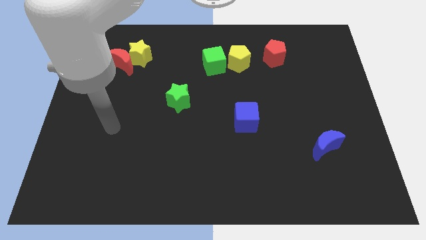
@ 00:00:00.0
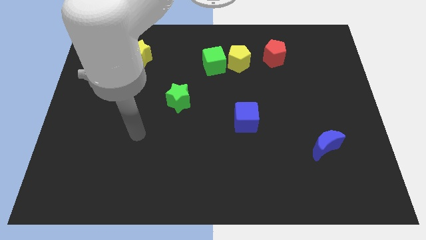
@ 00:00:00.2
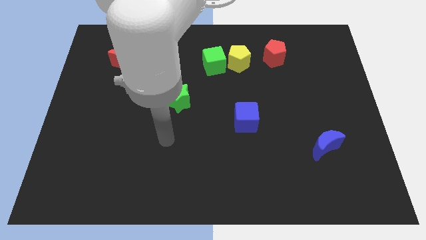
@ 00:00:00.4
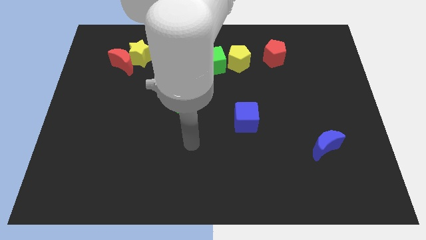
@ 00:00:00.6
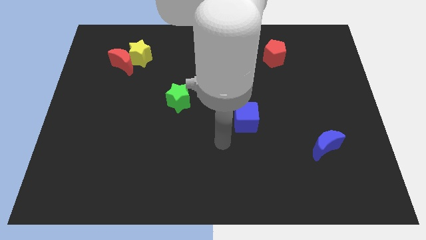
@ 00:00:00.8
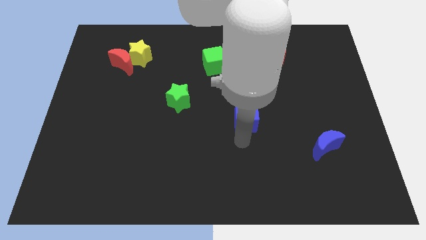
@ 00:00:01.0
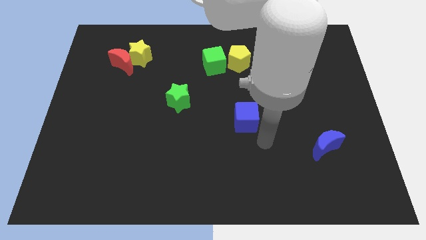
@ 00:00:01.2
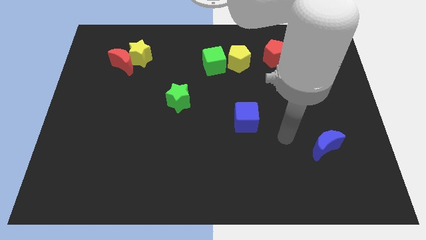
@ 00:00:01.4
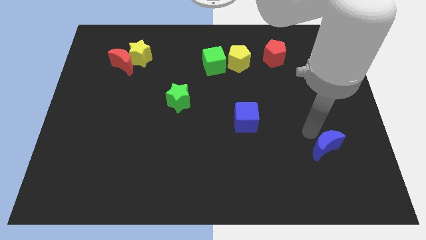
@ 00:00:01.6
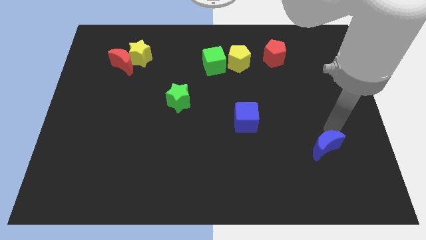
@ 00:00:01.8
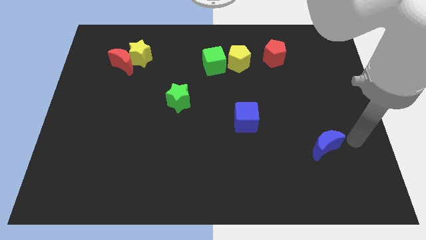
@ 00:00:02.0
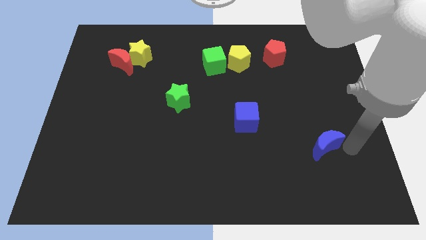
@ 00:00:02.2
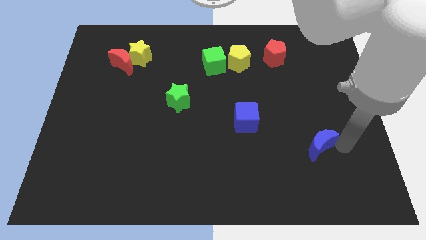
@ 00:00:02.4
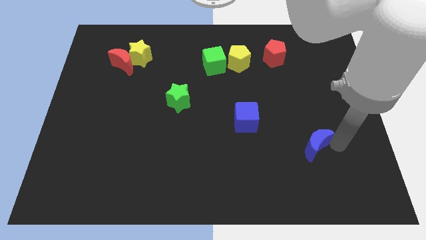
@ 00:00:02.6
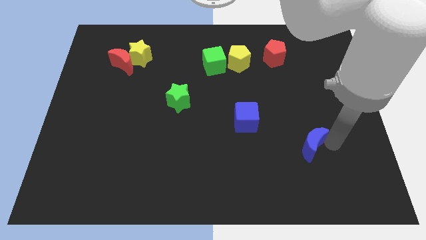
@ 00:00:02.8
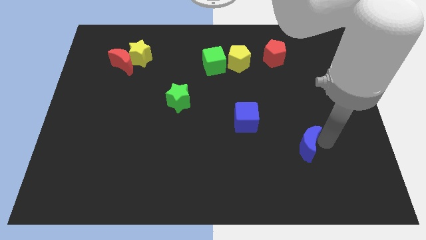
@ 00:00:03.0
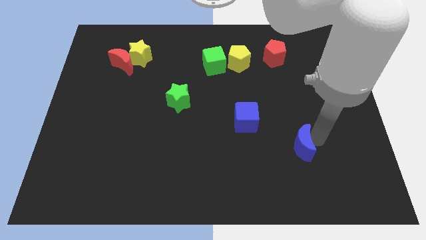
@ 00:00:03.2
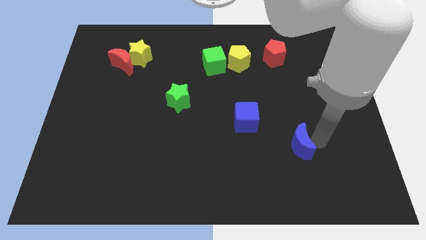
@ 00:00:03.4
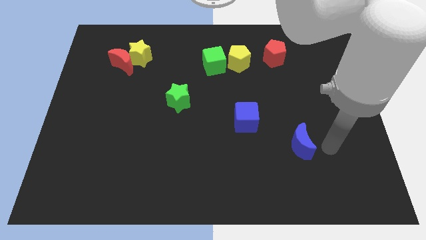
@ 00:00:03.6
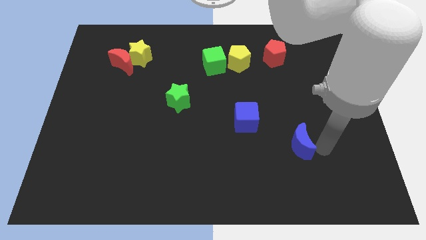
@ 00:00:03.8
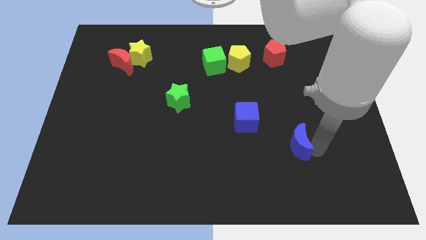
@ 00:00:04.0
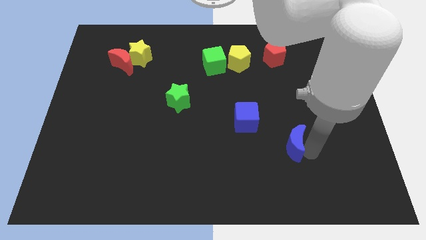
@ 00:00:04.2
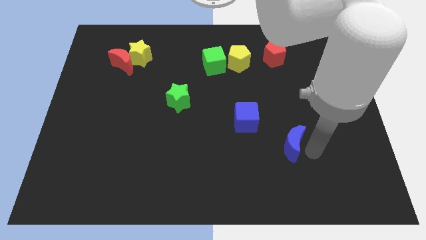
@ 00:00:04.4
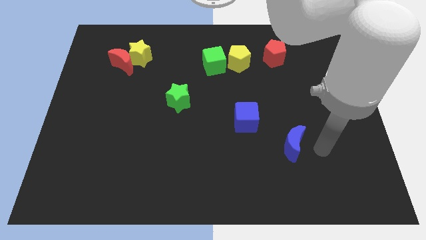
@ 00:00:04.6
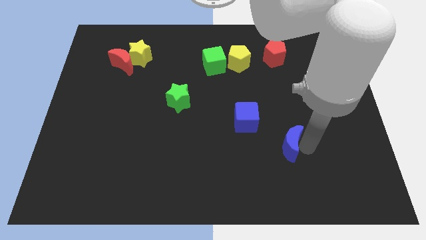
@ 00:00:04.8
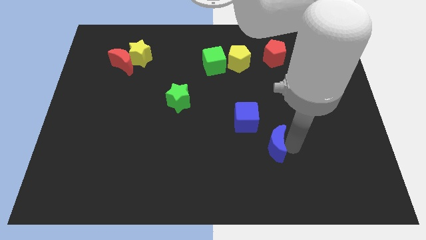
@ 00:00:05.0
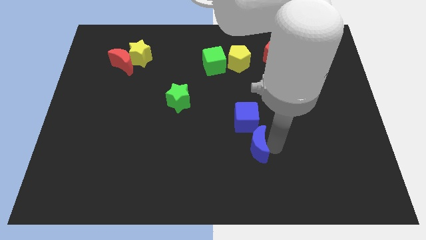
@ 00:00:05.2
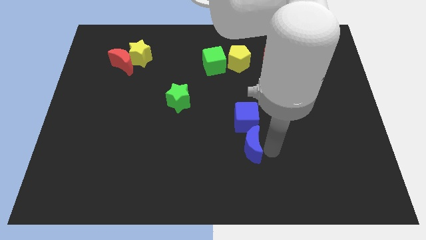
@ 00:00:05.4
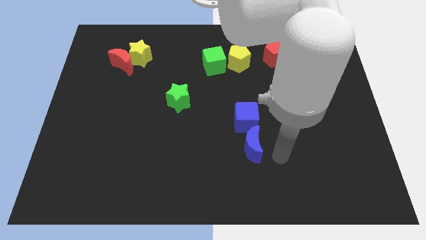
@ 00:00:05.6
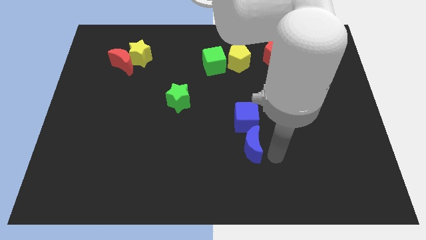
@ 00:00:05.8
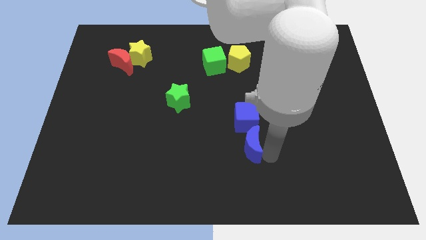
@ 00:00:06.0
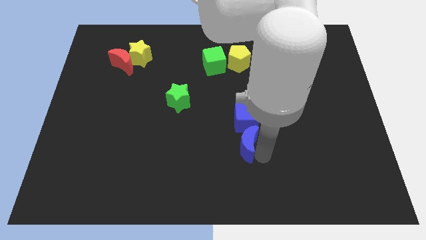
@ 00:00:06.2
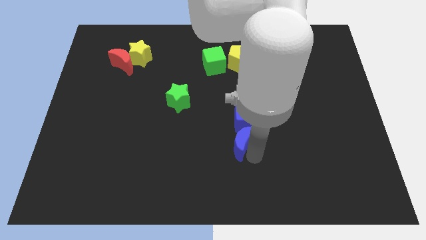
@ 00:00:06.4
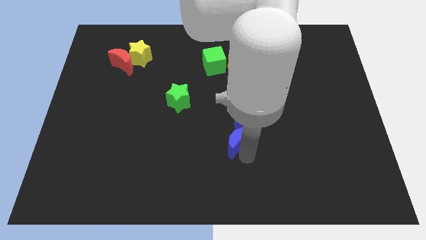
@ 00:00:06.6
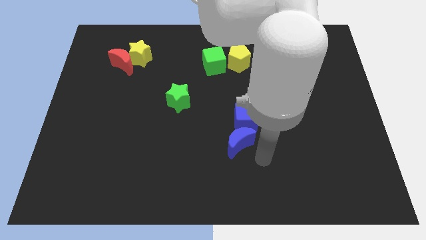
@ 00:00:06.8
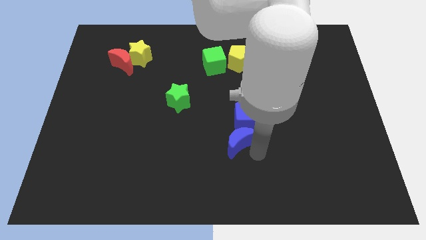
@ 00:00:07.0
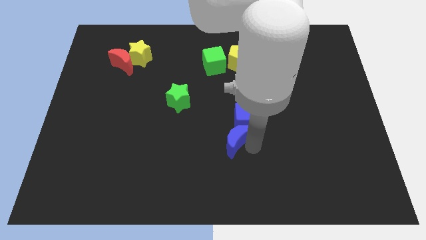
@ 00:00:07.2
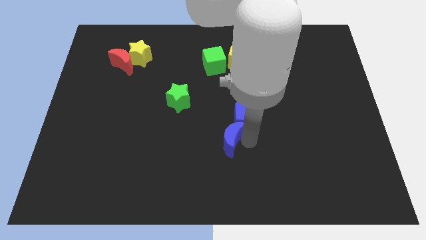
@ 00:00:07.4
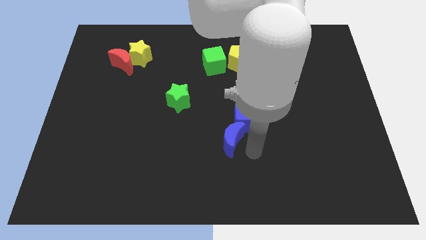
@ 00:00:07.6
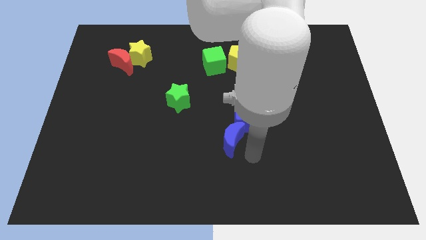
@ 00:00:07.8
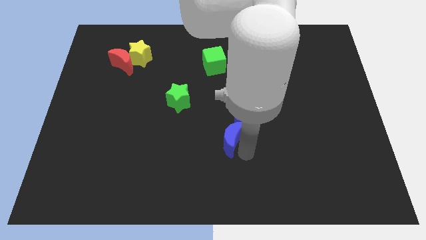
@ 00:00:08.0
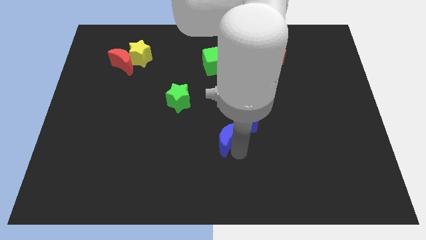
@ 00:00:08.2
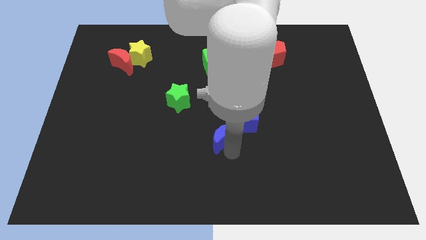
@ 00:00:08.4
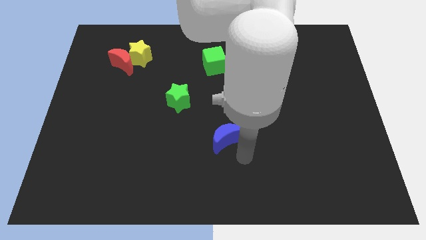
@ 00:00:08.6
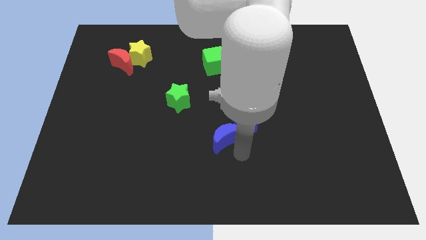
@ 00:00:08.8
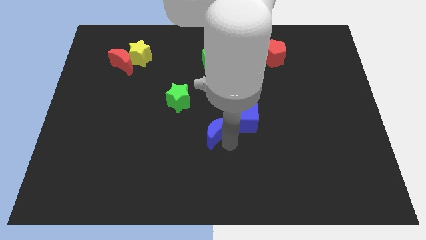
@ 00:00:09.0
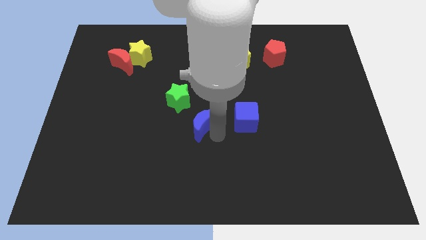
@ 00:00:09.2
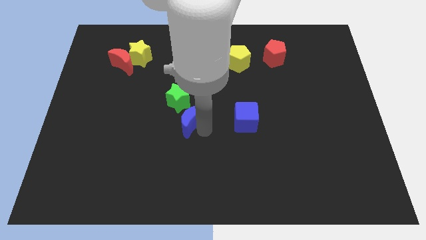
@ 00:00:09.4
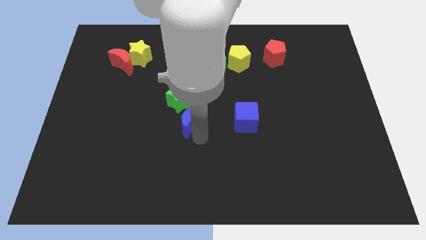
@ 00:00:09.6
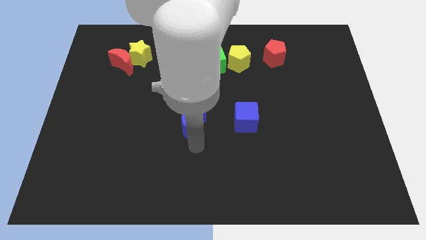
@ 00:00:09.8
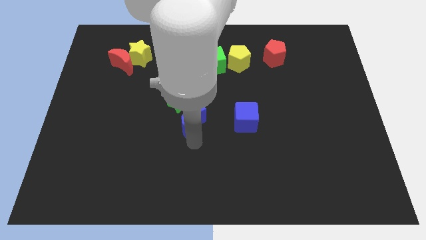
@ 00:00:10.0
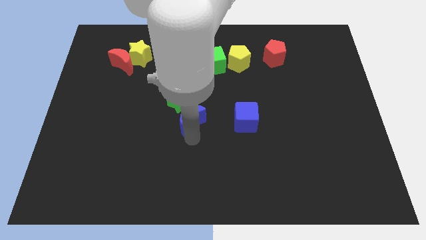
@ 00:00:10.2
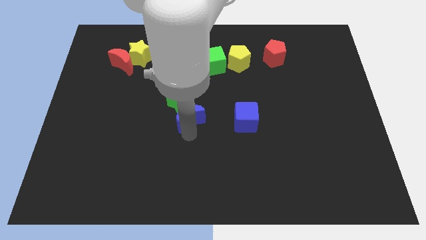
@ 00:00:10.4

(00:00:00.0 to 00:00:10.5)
push the blue moon close to the green star

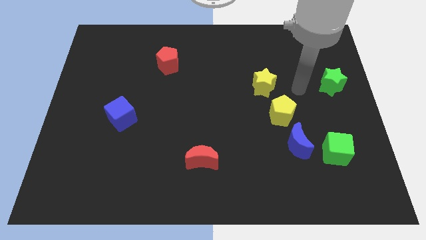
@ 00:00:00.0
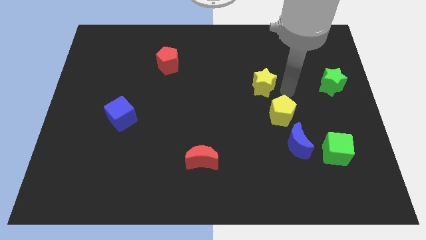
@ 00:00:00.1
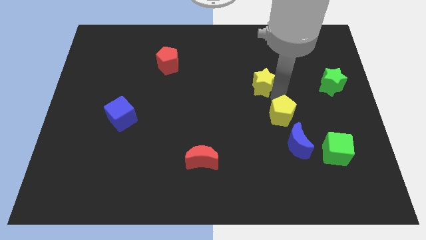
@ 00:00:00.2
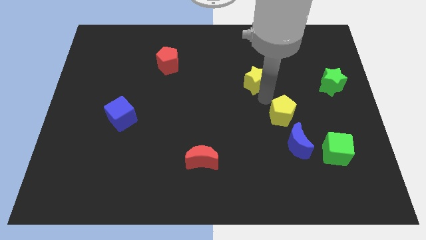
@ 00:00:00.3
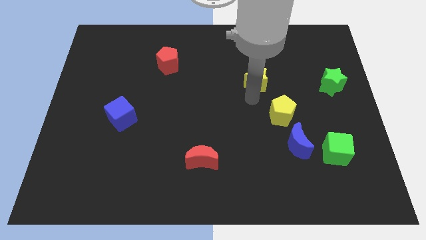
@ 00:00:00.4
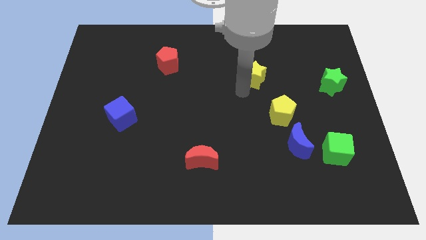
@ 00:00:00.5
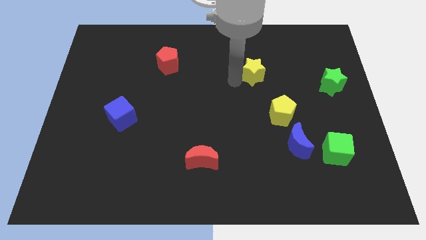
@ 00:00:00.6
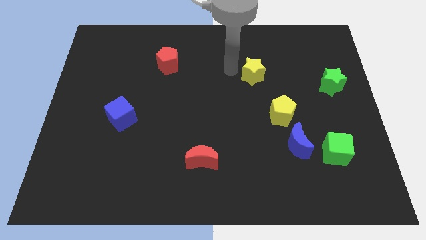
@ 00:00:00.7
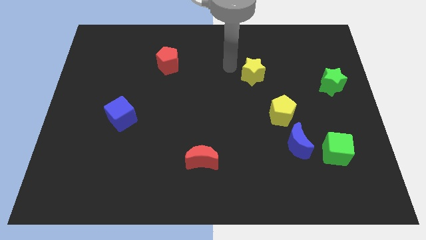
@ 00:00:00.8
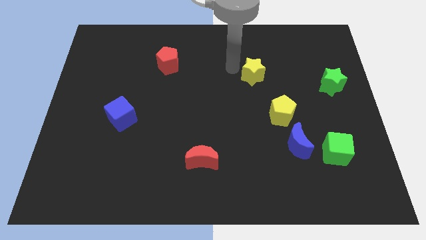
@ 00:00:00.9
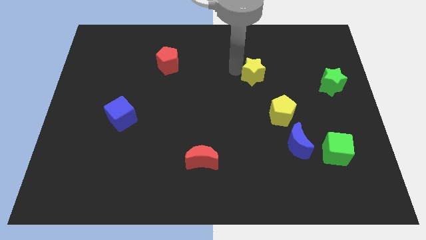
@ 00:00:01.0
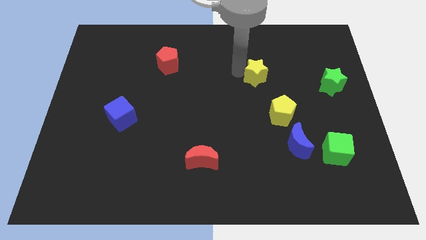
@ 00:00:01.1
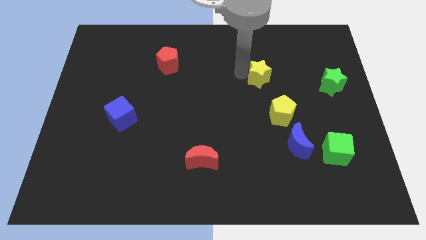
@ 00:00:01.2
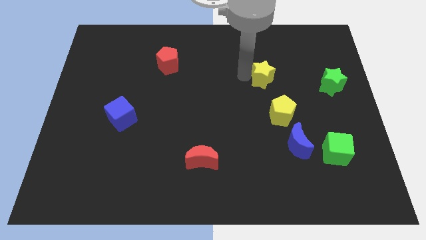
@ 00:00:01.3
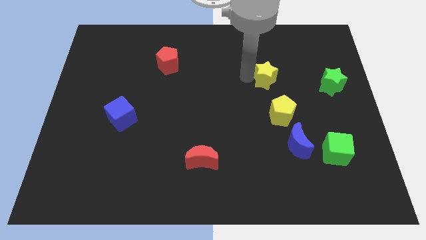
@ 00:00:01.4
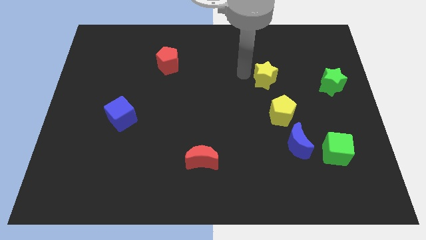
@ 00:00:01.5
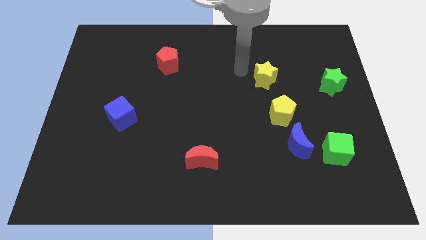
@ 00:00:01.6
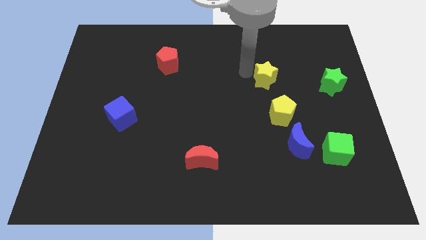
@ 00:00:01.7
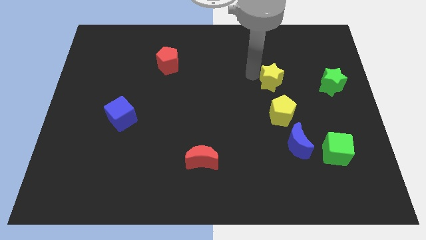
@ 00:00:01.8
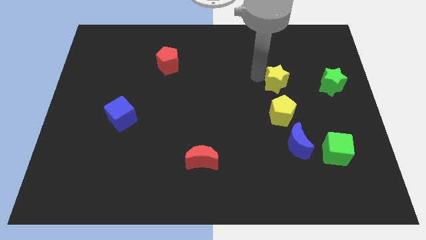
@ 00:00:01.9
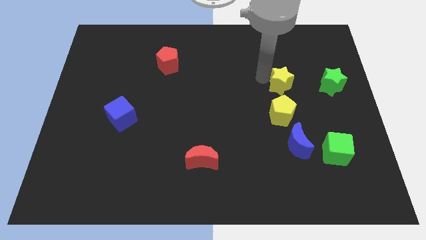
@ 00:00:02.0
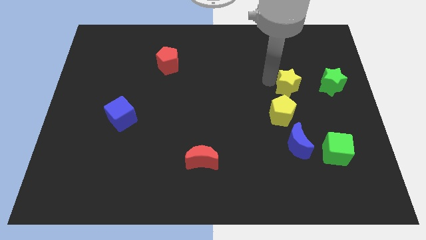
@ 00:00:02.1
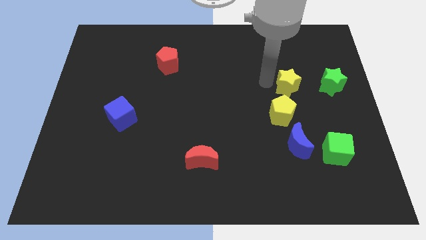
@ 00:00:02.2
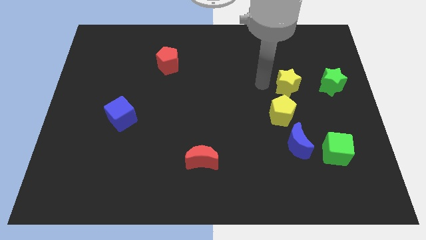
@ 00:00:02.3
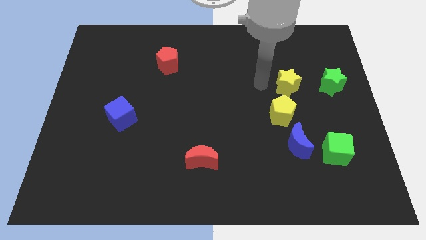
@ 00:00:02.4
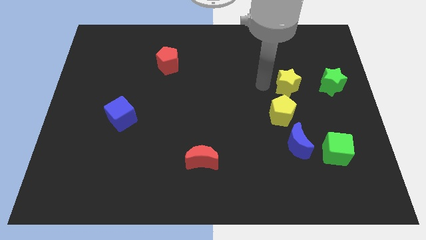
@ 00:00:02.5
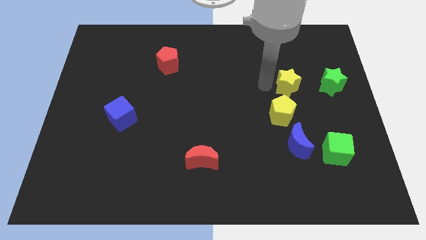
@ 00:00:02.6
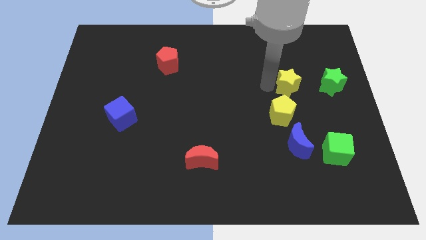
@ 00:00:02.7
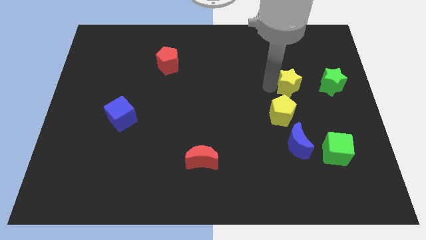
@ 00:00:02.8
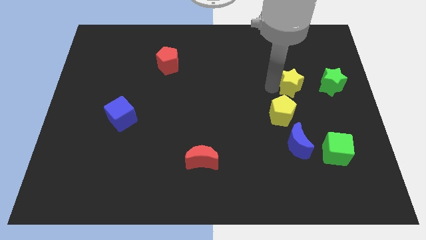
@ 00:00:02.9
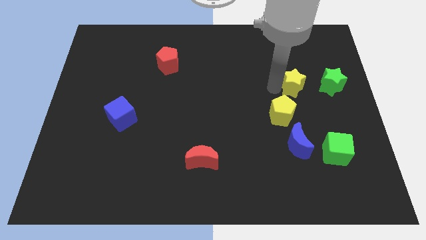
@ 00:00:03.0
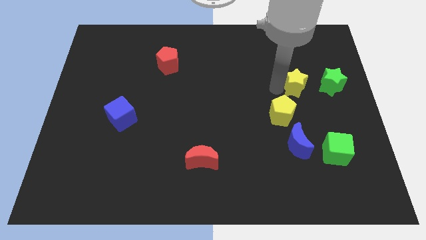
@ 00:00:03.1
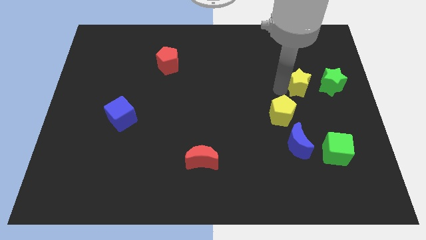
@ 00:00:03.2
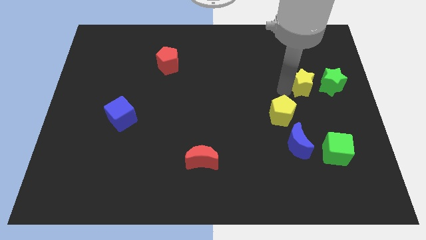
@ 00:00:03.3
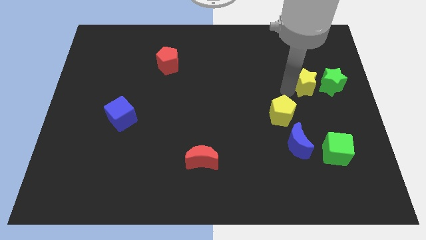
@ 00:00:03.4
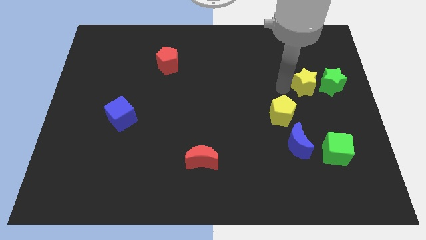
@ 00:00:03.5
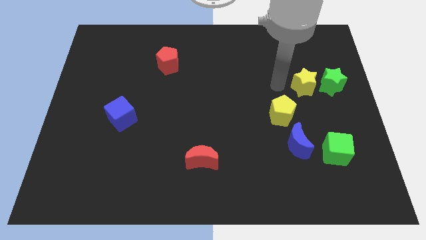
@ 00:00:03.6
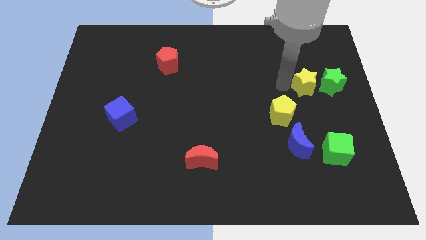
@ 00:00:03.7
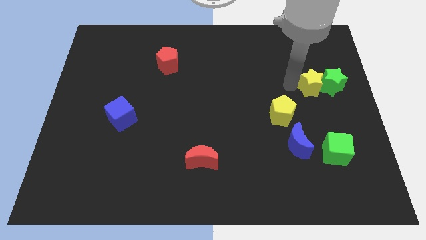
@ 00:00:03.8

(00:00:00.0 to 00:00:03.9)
push the yellow star close to the green star
